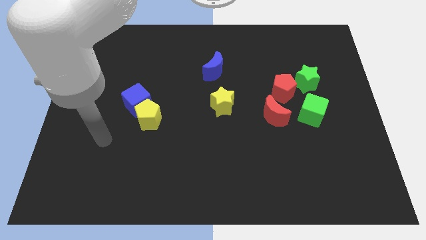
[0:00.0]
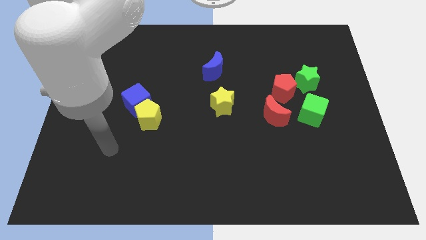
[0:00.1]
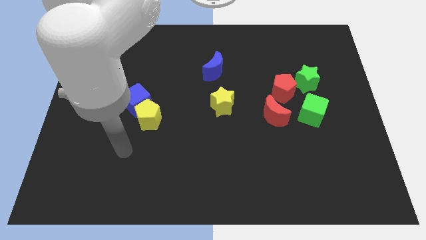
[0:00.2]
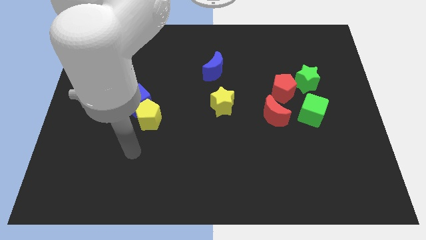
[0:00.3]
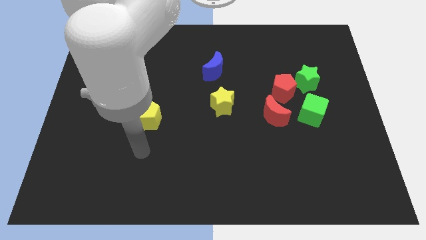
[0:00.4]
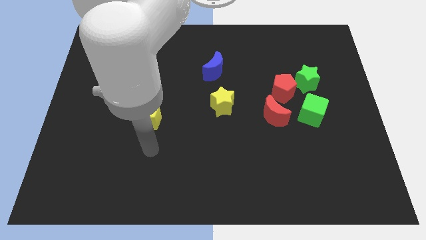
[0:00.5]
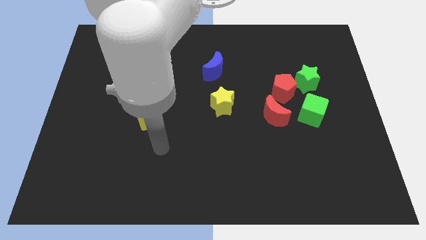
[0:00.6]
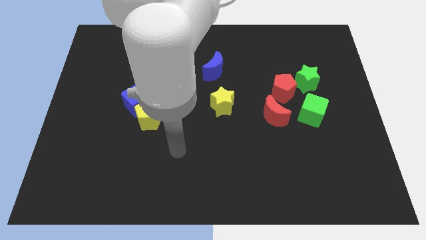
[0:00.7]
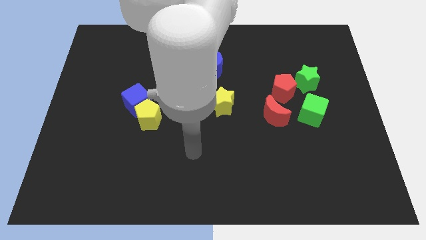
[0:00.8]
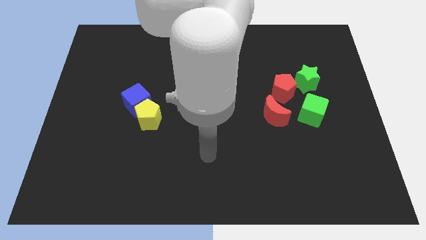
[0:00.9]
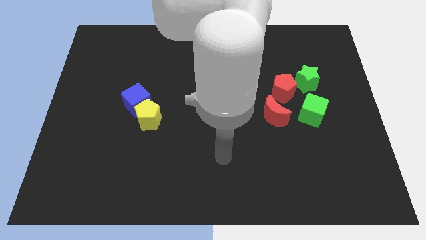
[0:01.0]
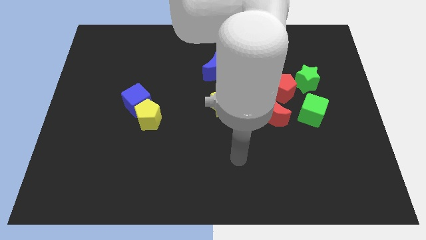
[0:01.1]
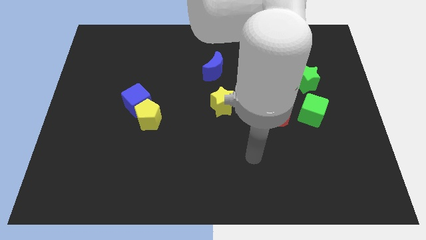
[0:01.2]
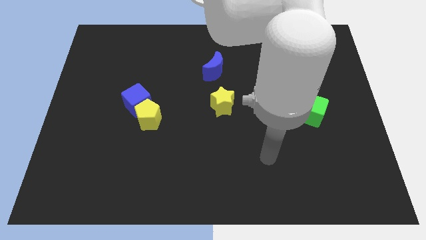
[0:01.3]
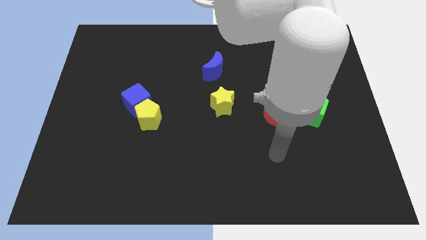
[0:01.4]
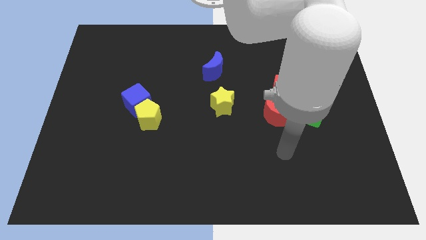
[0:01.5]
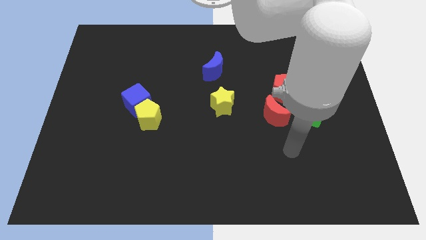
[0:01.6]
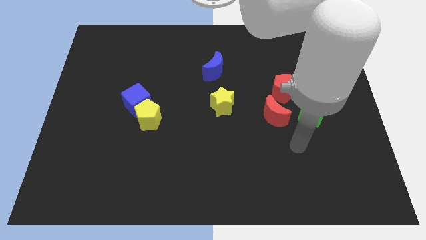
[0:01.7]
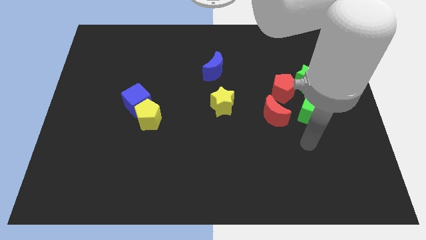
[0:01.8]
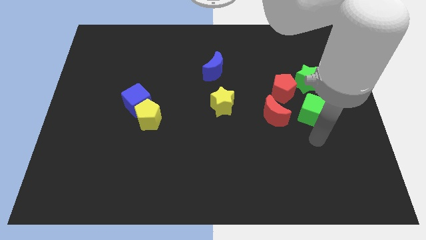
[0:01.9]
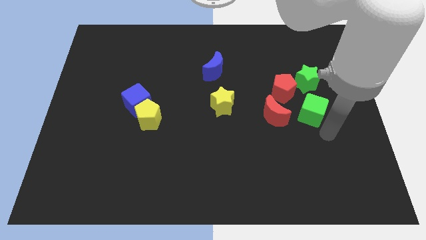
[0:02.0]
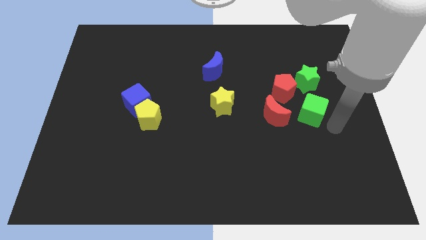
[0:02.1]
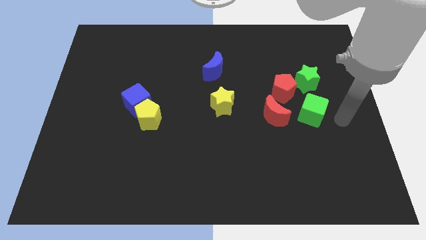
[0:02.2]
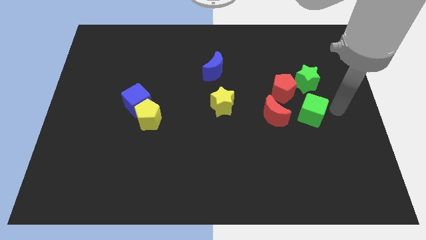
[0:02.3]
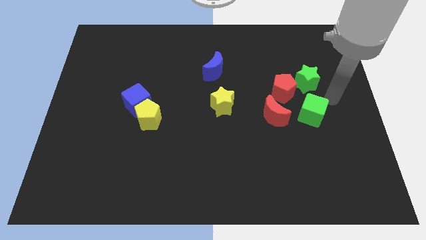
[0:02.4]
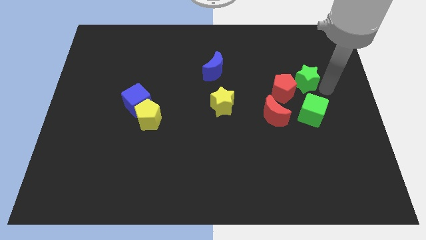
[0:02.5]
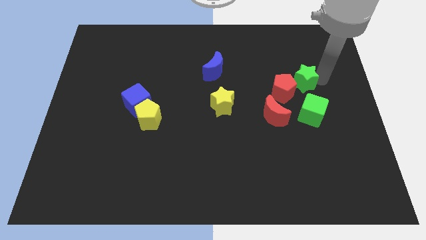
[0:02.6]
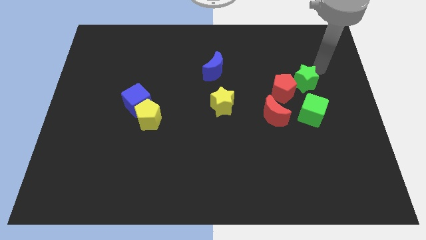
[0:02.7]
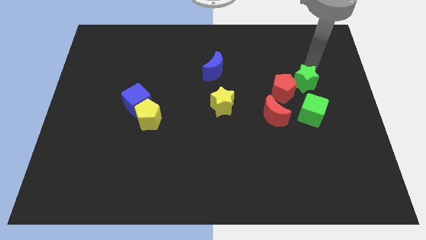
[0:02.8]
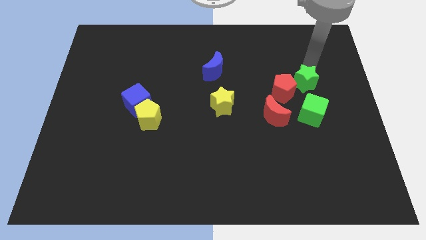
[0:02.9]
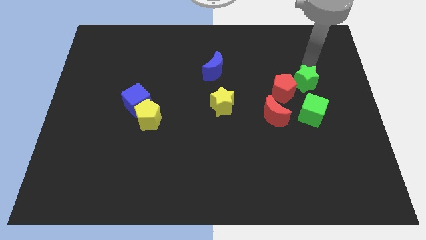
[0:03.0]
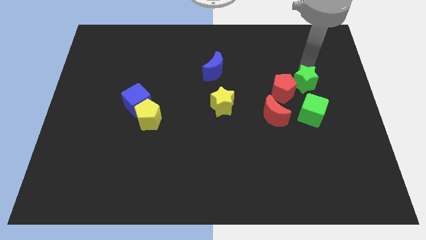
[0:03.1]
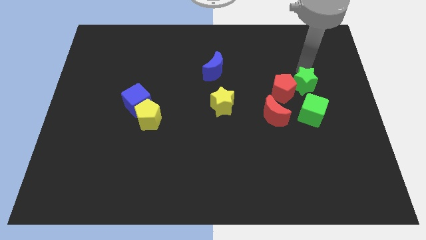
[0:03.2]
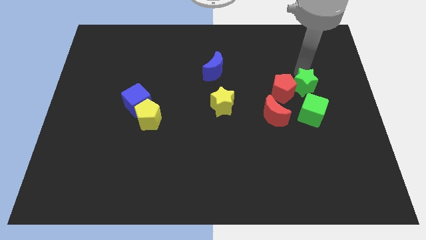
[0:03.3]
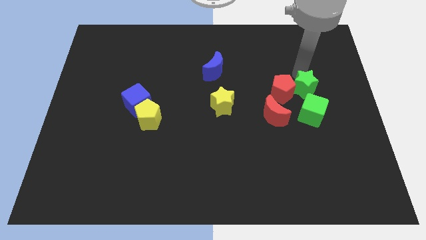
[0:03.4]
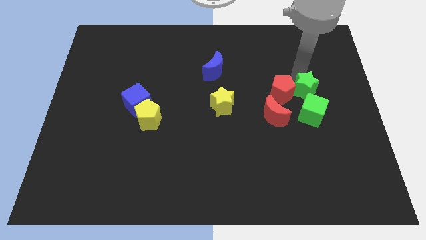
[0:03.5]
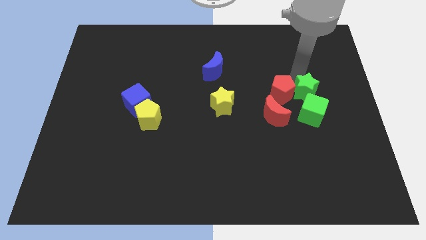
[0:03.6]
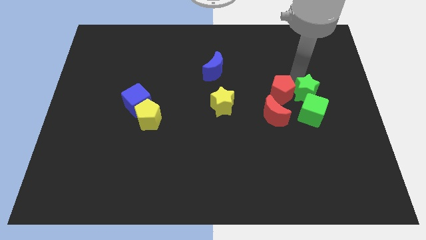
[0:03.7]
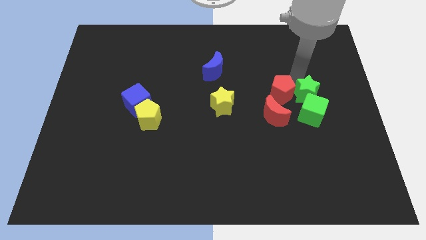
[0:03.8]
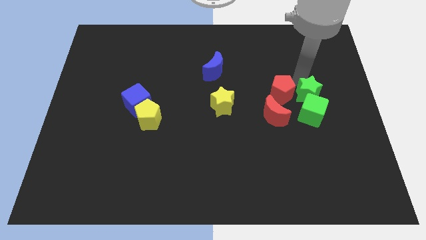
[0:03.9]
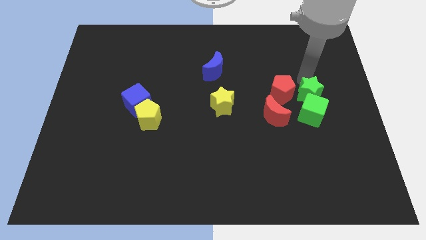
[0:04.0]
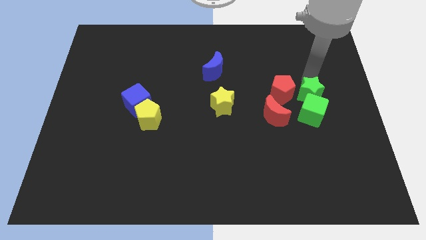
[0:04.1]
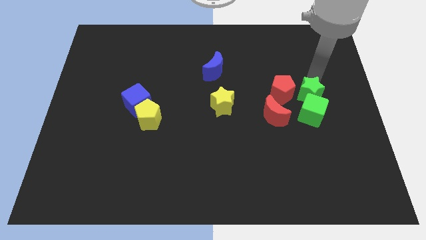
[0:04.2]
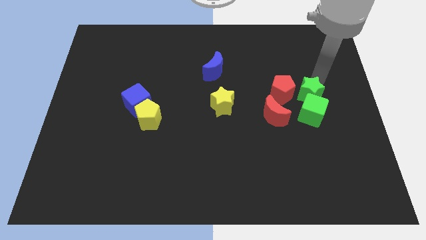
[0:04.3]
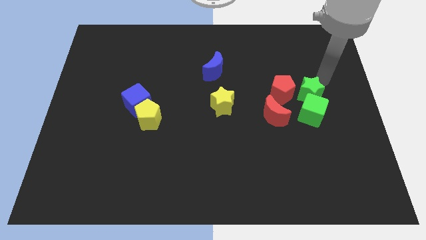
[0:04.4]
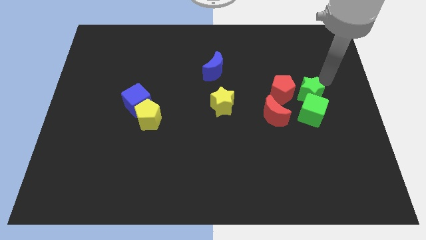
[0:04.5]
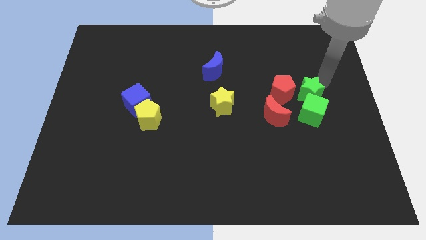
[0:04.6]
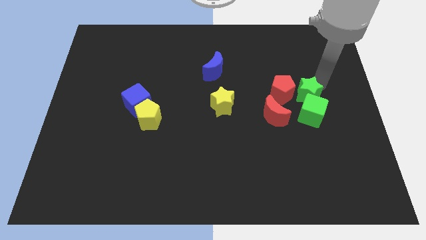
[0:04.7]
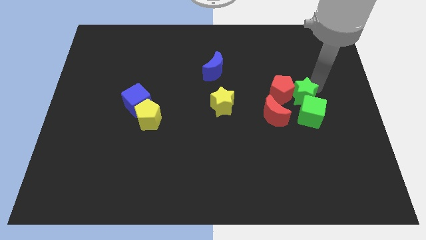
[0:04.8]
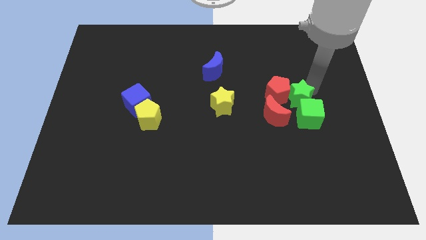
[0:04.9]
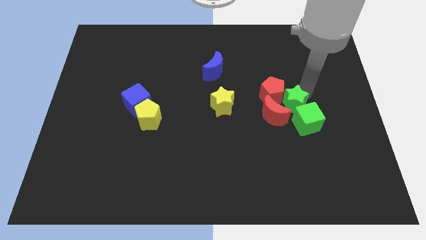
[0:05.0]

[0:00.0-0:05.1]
slide the green star next to the red moon

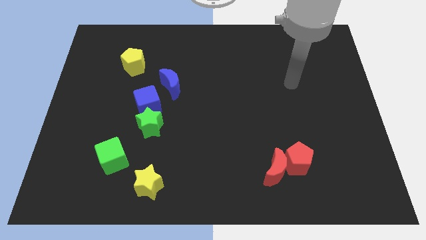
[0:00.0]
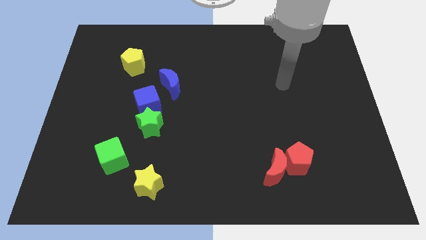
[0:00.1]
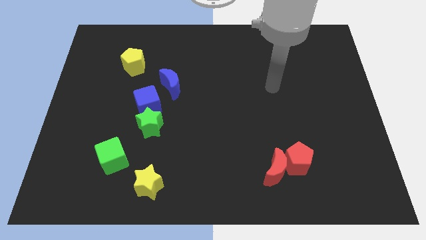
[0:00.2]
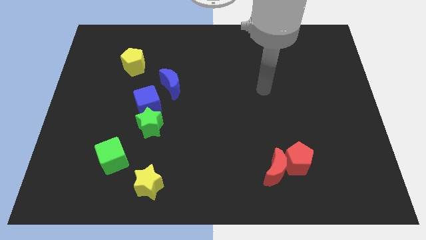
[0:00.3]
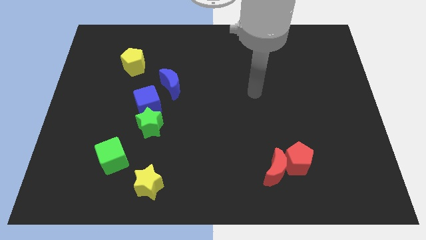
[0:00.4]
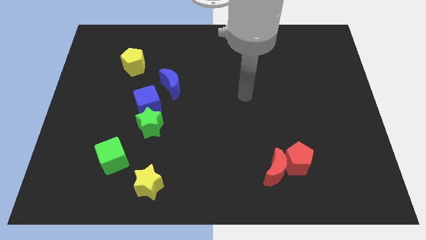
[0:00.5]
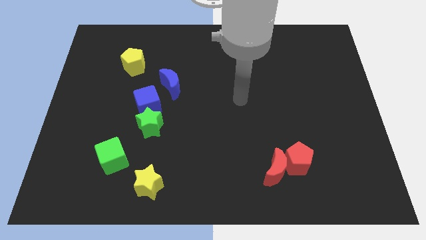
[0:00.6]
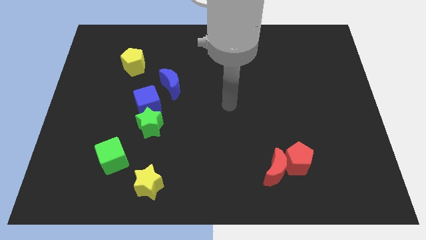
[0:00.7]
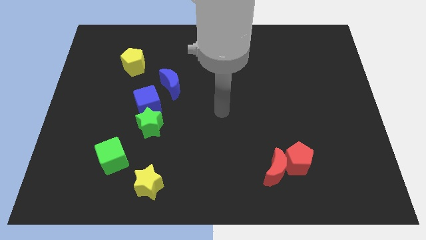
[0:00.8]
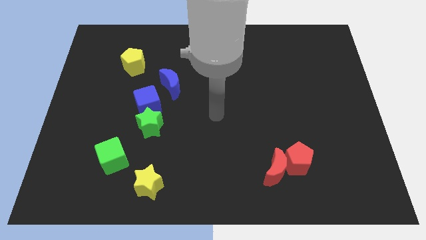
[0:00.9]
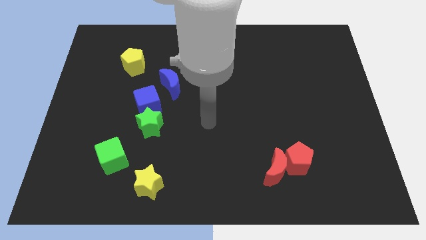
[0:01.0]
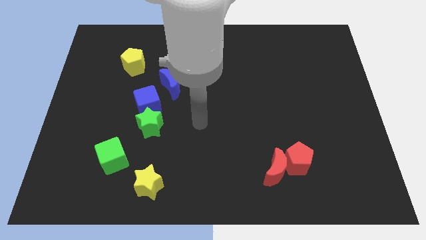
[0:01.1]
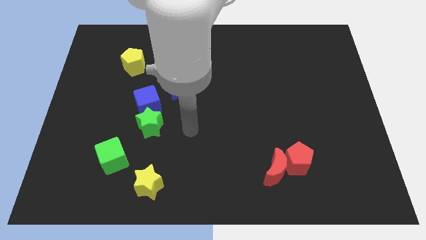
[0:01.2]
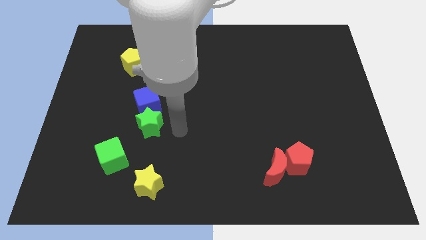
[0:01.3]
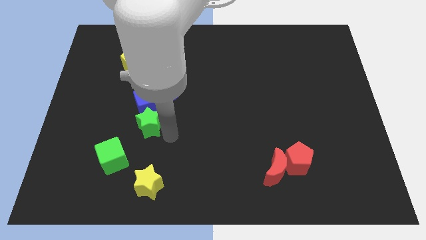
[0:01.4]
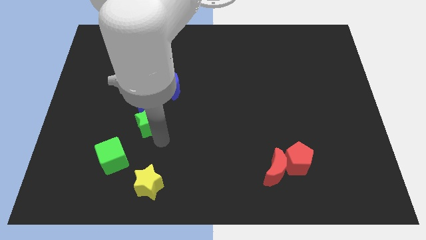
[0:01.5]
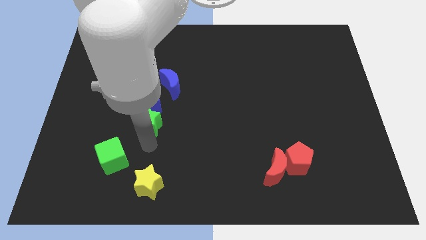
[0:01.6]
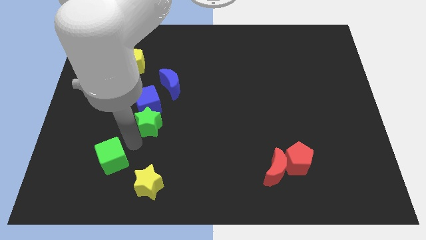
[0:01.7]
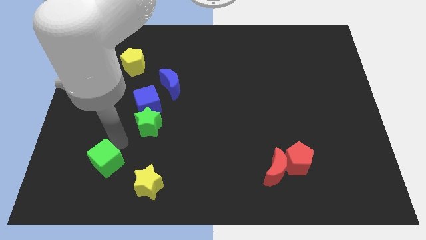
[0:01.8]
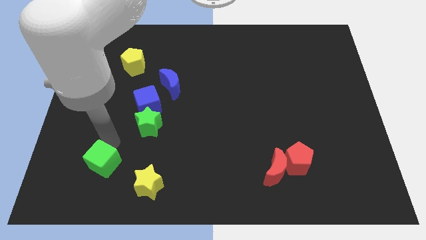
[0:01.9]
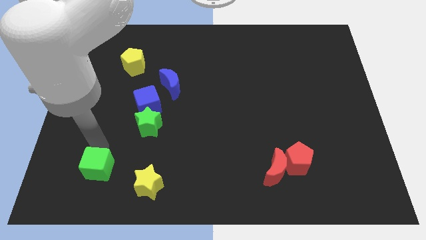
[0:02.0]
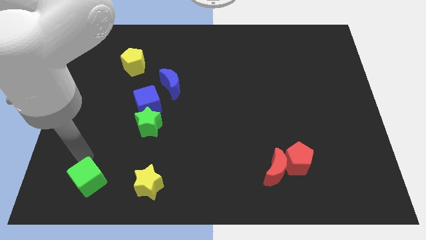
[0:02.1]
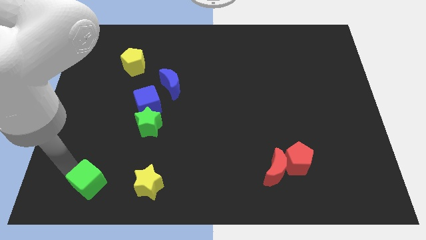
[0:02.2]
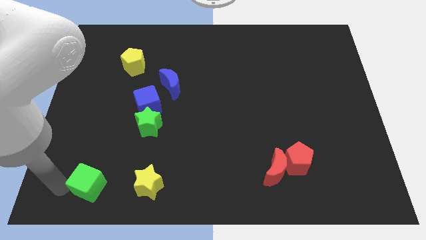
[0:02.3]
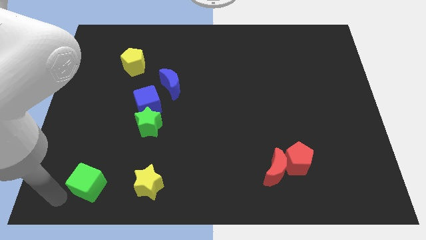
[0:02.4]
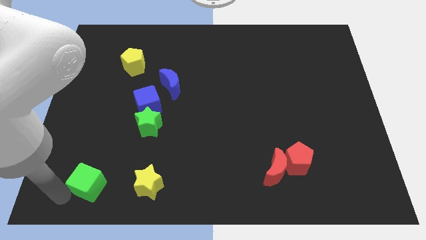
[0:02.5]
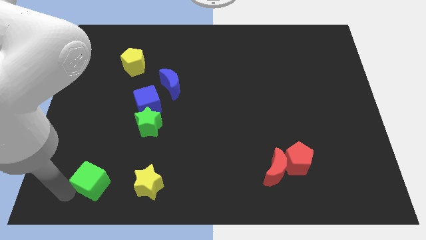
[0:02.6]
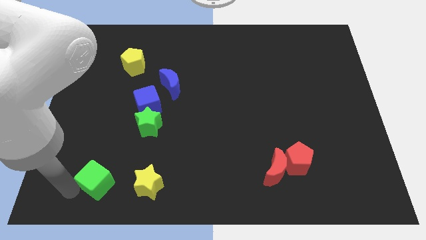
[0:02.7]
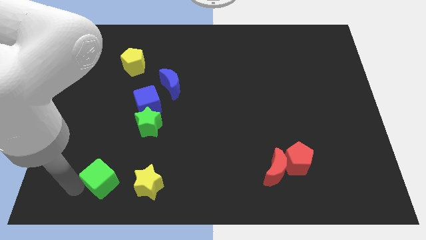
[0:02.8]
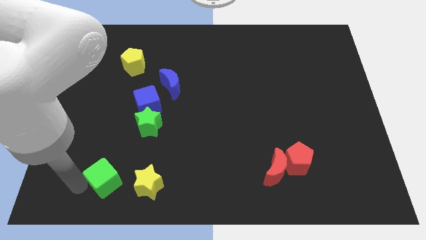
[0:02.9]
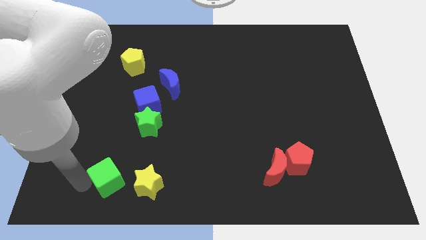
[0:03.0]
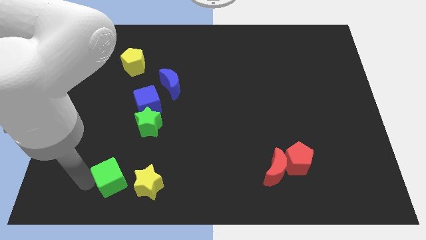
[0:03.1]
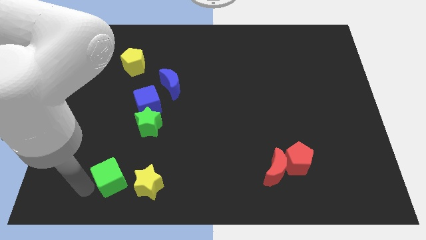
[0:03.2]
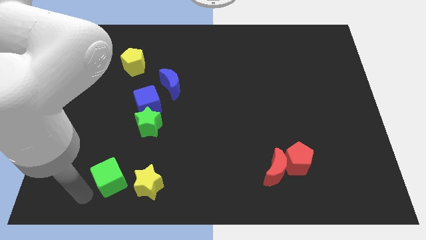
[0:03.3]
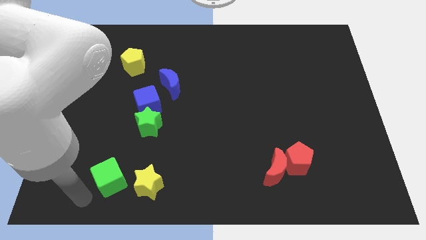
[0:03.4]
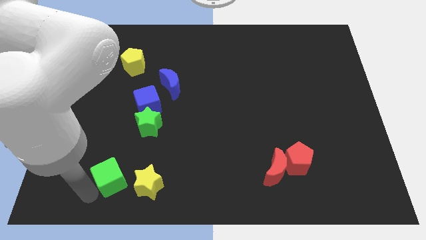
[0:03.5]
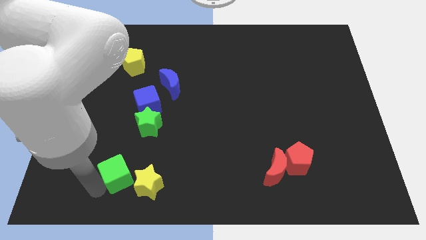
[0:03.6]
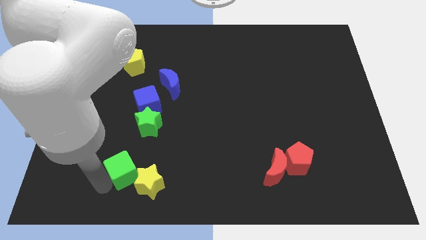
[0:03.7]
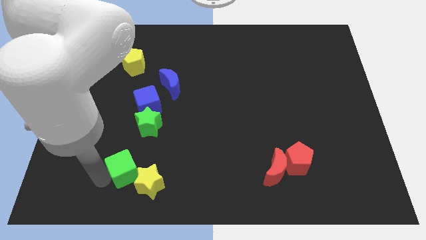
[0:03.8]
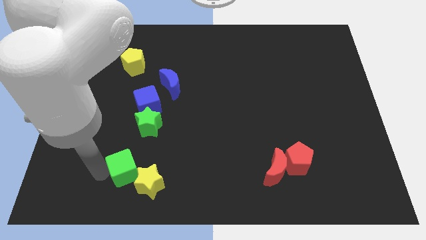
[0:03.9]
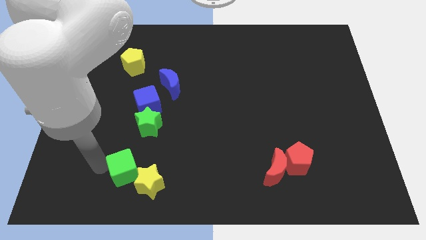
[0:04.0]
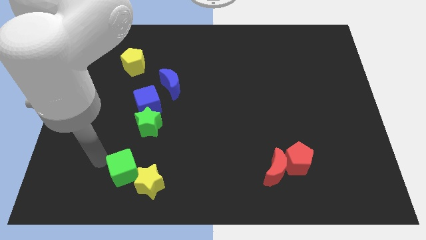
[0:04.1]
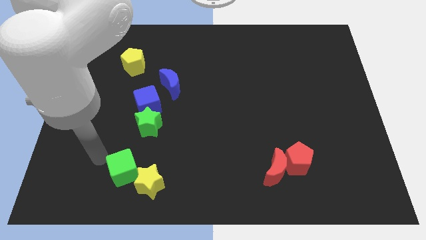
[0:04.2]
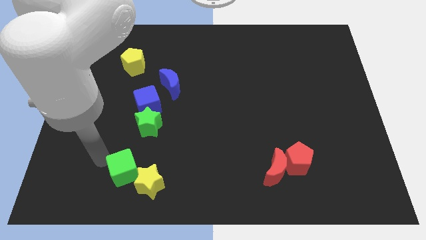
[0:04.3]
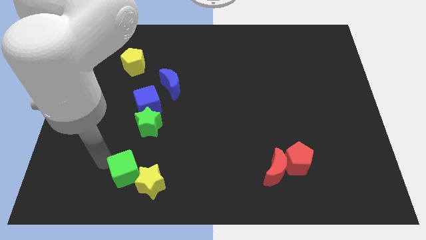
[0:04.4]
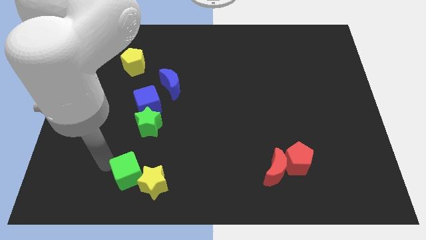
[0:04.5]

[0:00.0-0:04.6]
slide the green cube close to the yellow star
